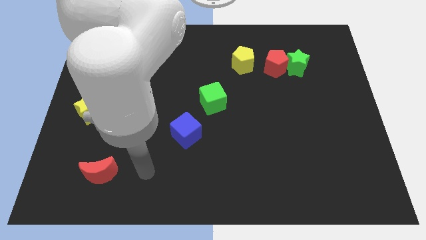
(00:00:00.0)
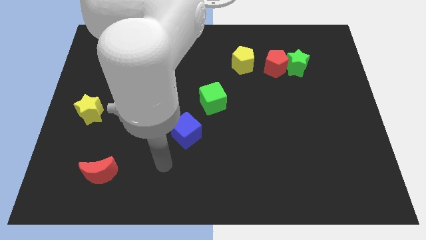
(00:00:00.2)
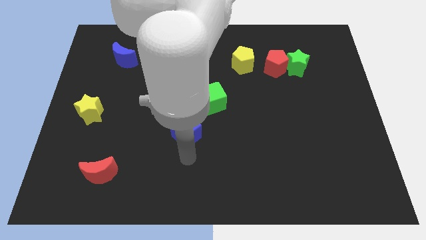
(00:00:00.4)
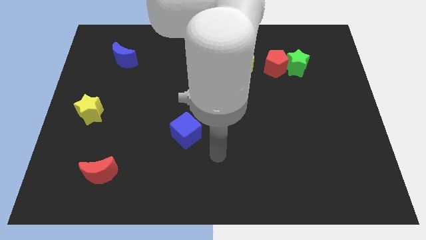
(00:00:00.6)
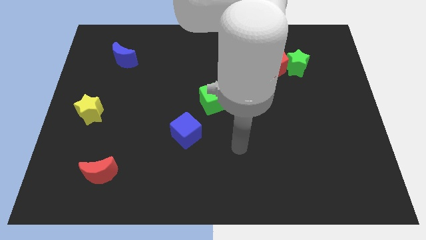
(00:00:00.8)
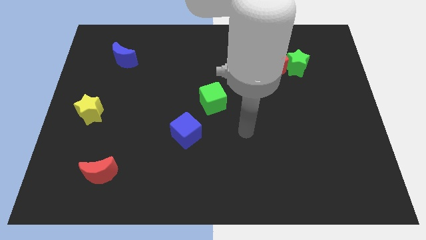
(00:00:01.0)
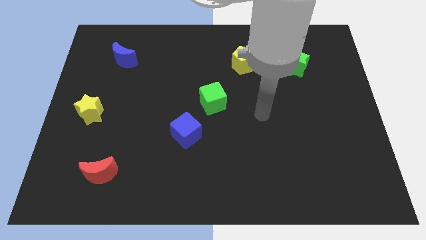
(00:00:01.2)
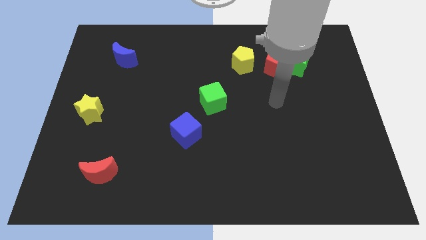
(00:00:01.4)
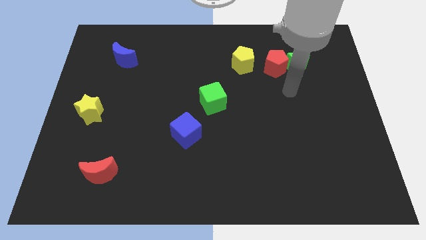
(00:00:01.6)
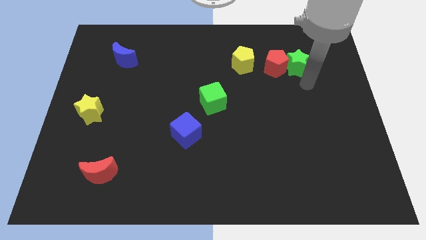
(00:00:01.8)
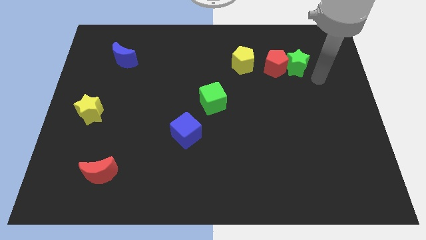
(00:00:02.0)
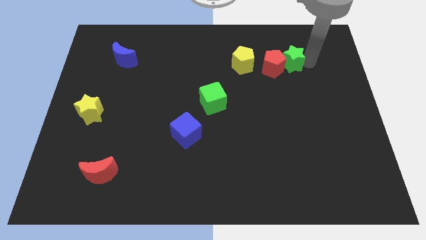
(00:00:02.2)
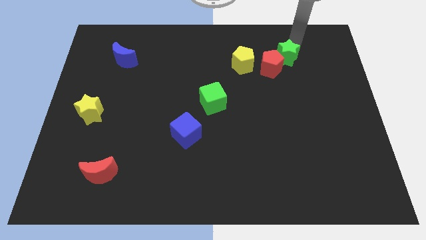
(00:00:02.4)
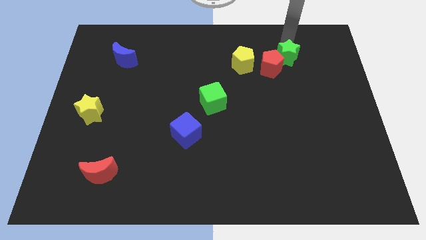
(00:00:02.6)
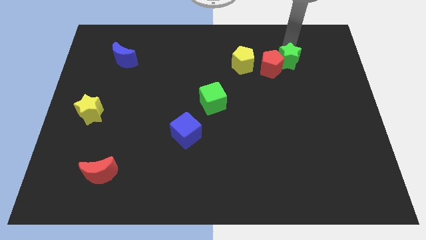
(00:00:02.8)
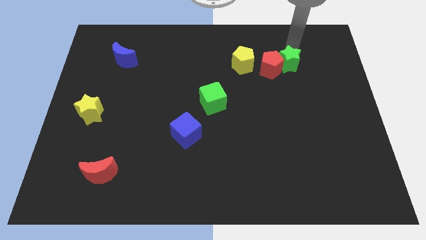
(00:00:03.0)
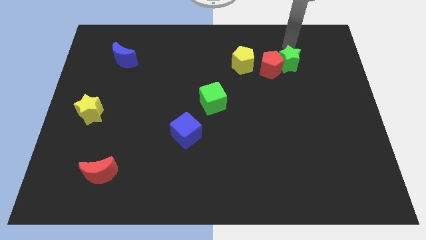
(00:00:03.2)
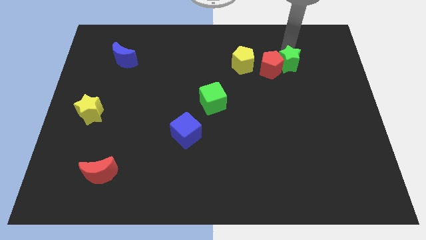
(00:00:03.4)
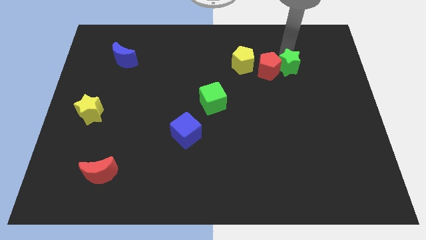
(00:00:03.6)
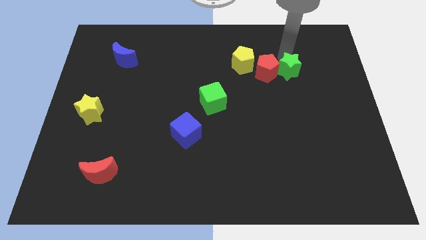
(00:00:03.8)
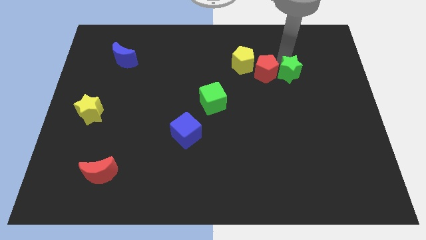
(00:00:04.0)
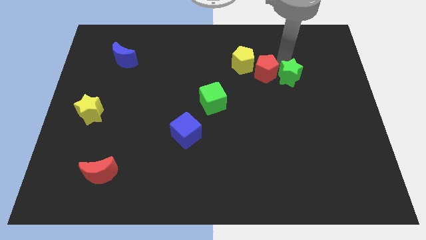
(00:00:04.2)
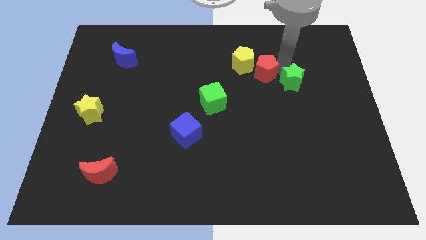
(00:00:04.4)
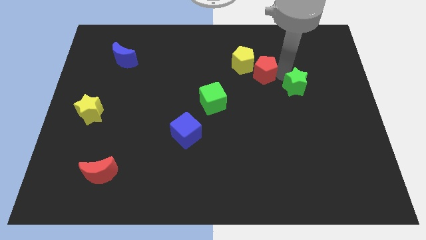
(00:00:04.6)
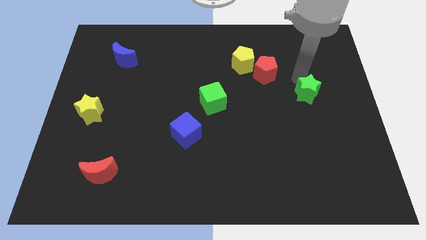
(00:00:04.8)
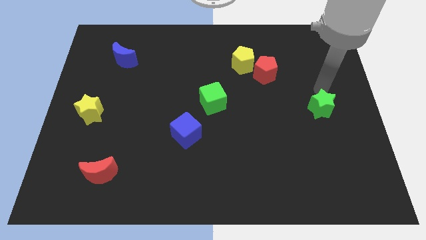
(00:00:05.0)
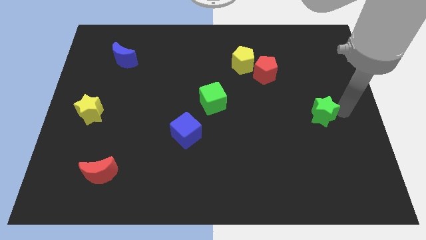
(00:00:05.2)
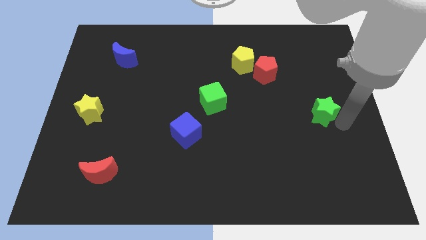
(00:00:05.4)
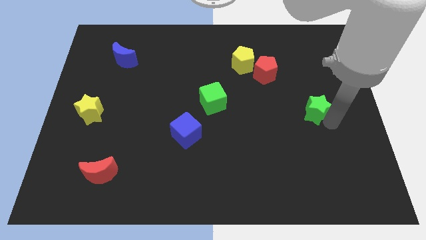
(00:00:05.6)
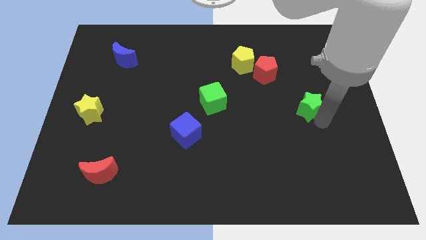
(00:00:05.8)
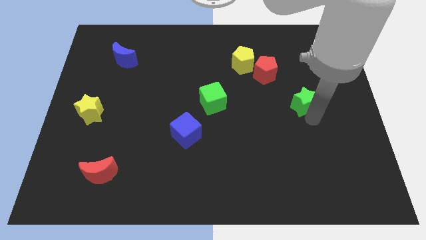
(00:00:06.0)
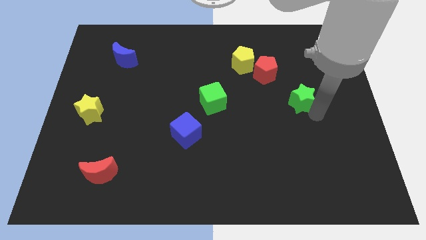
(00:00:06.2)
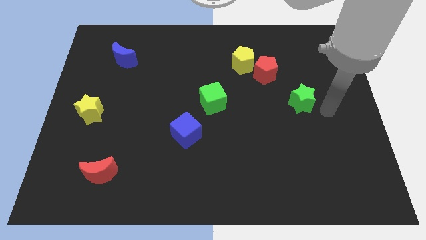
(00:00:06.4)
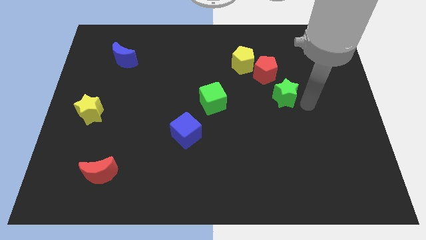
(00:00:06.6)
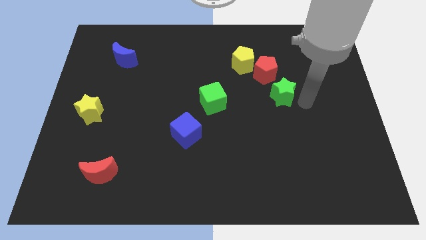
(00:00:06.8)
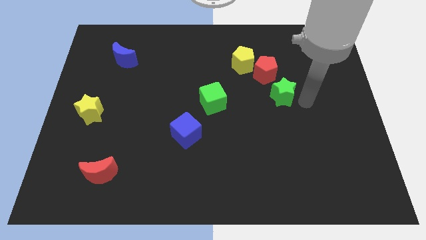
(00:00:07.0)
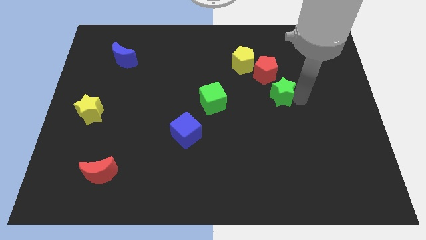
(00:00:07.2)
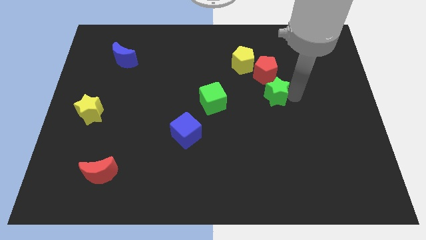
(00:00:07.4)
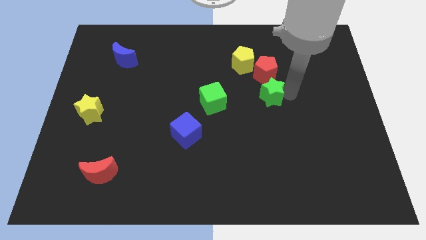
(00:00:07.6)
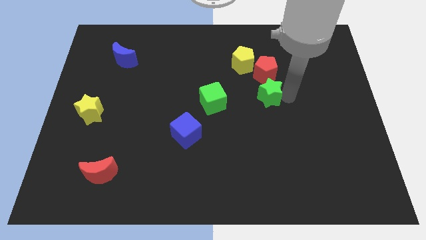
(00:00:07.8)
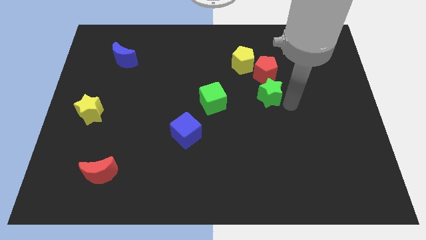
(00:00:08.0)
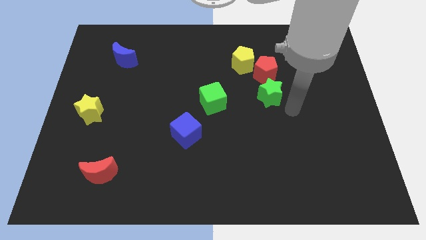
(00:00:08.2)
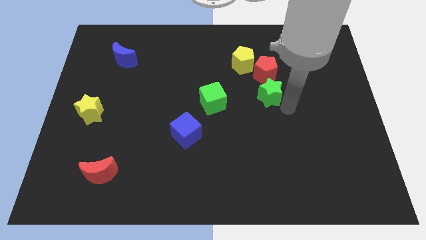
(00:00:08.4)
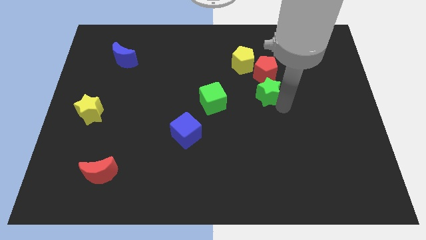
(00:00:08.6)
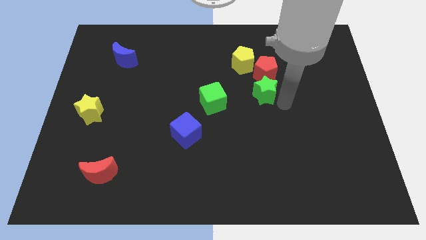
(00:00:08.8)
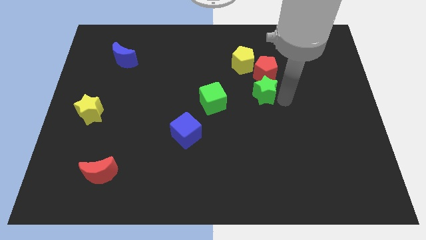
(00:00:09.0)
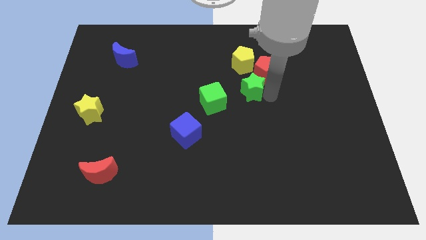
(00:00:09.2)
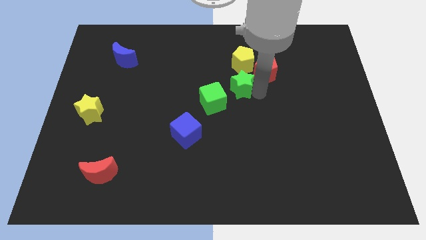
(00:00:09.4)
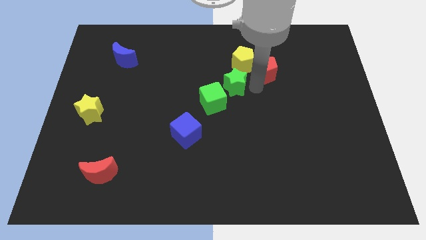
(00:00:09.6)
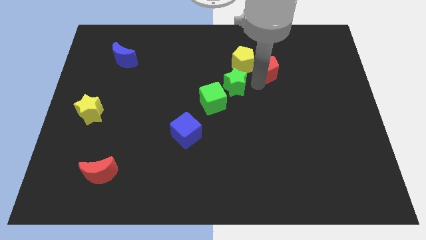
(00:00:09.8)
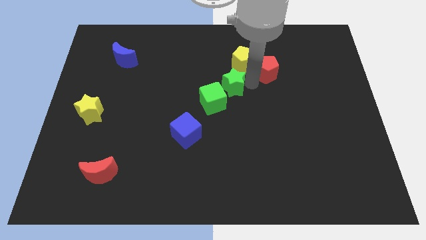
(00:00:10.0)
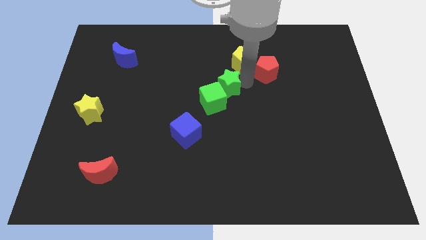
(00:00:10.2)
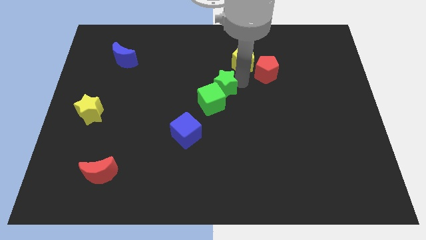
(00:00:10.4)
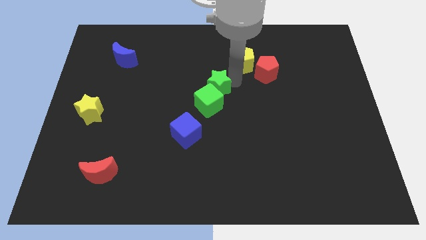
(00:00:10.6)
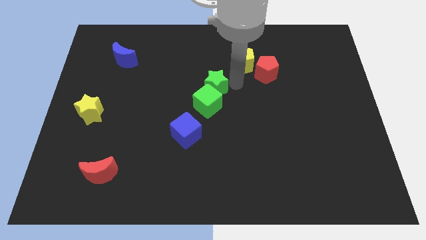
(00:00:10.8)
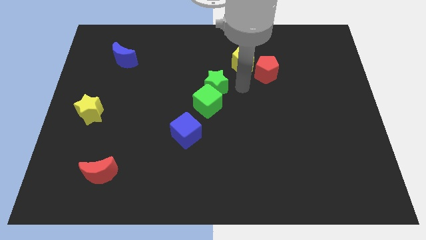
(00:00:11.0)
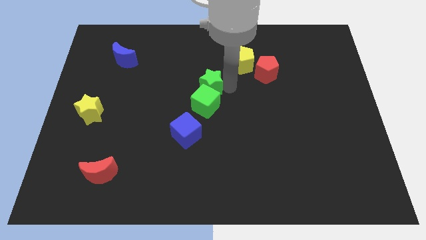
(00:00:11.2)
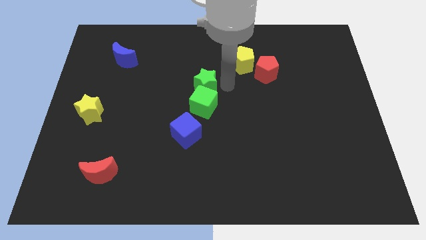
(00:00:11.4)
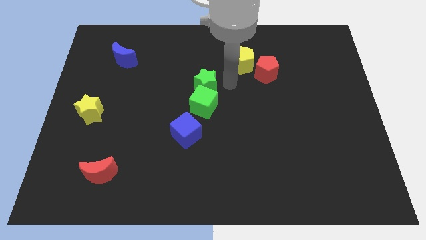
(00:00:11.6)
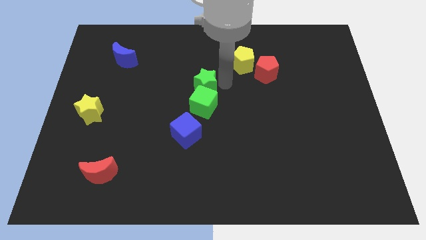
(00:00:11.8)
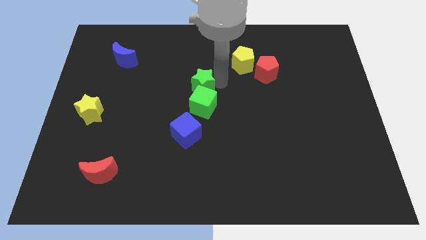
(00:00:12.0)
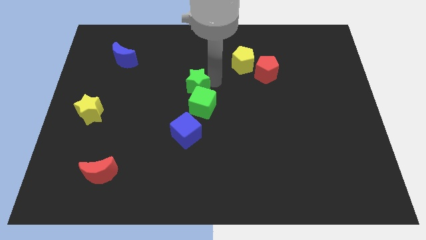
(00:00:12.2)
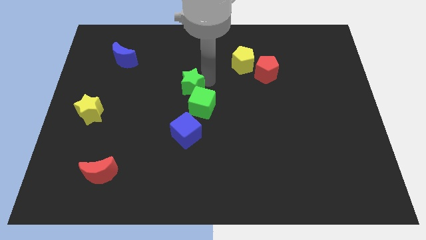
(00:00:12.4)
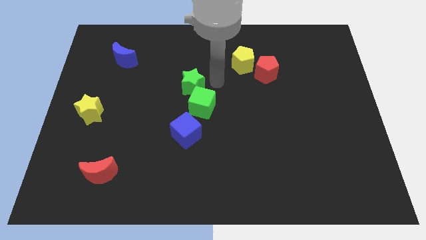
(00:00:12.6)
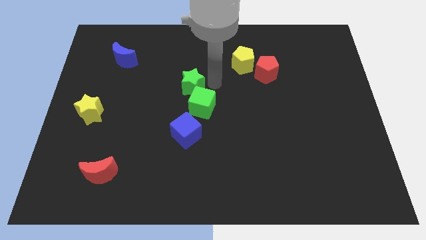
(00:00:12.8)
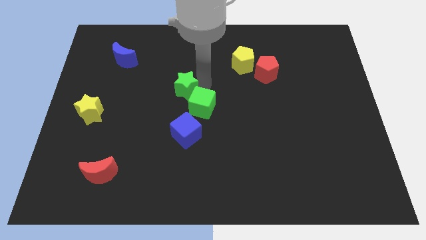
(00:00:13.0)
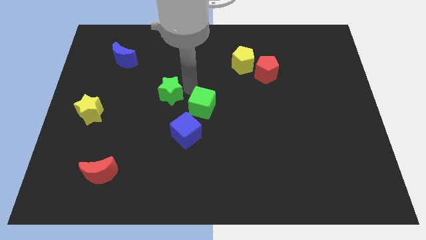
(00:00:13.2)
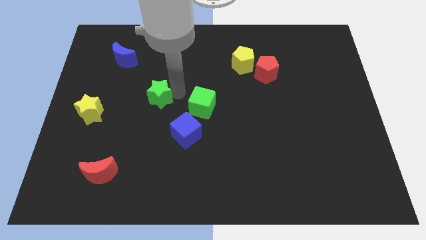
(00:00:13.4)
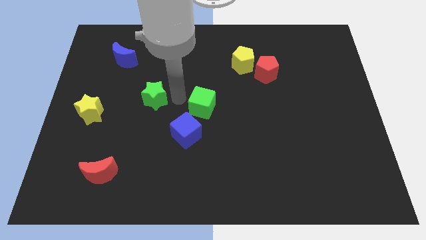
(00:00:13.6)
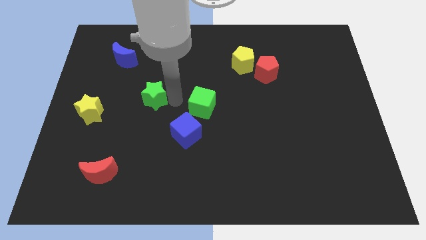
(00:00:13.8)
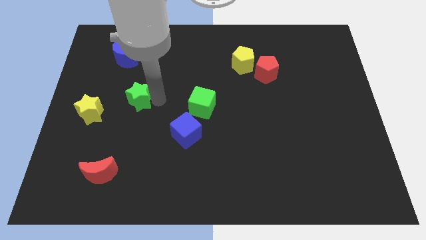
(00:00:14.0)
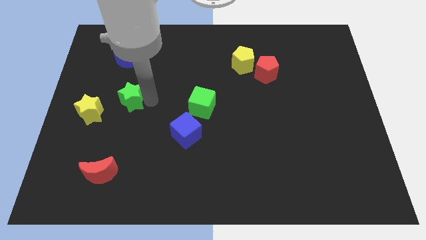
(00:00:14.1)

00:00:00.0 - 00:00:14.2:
push the green star diagonally up and to the right of the yellow star
